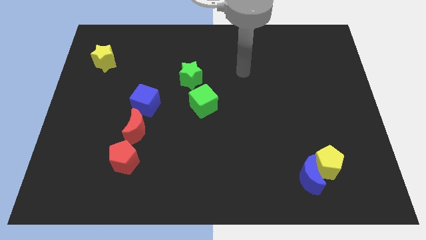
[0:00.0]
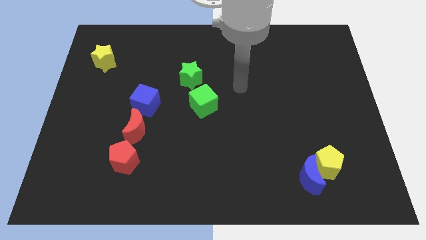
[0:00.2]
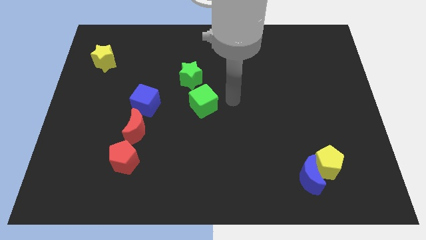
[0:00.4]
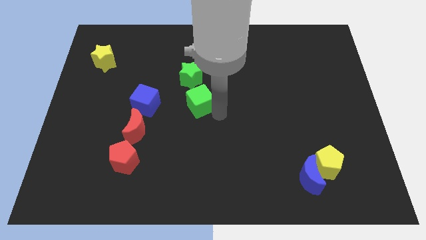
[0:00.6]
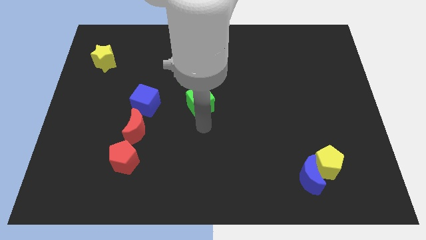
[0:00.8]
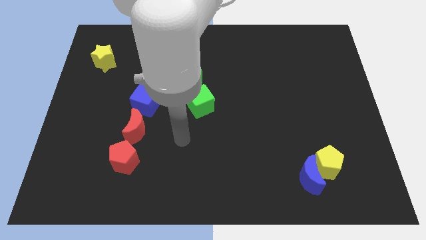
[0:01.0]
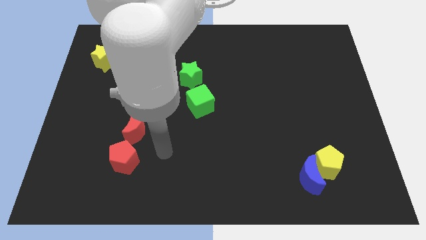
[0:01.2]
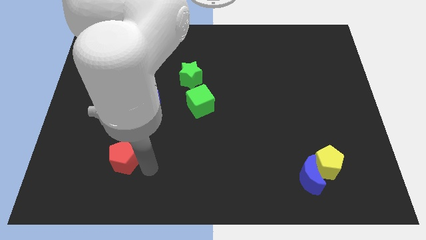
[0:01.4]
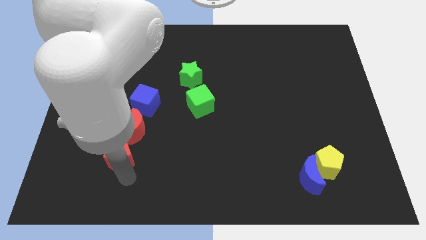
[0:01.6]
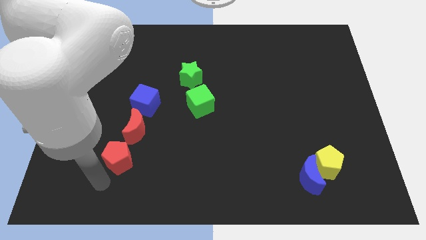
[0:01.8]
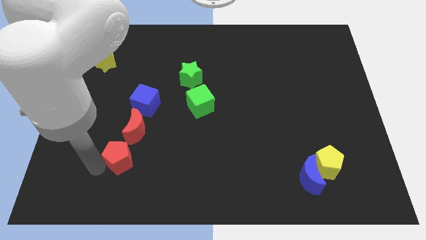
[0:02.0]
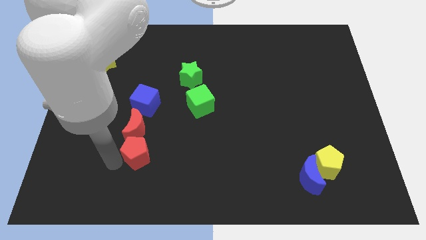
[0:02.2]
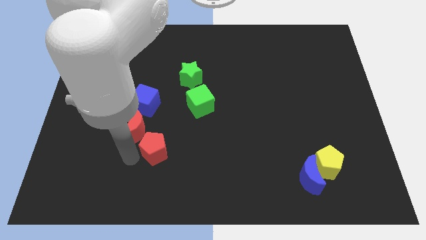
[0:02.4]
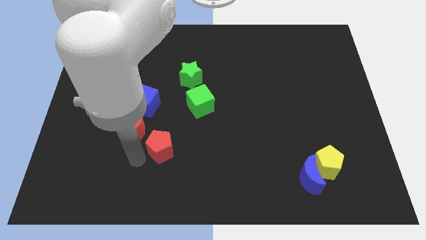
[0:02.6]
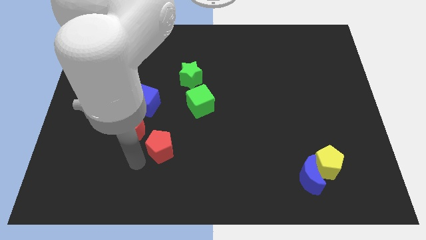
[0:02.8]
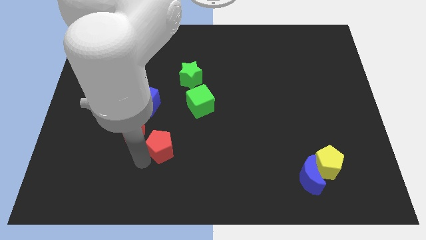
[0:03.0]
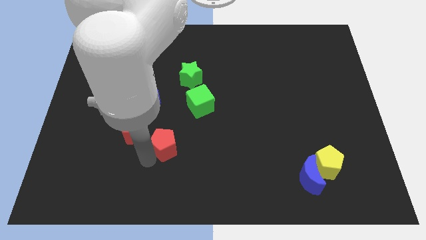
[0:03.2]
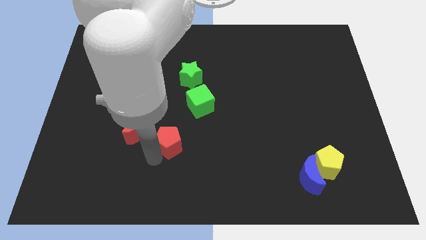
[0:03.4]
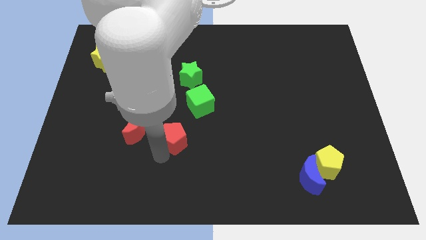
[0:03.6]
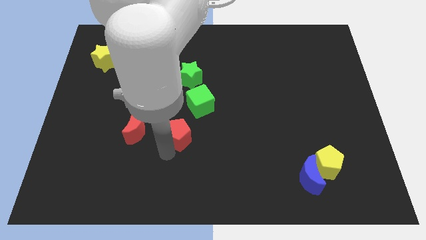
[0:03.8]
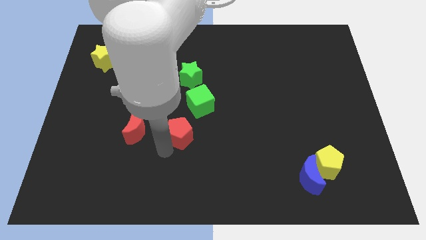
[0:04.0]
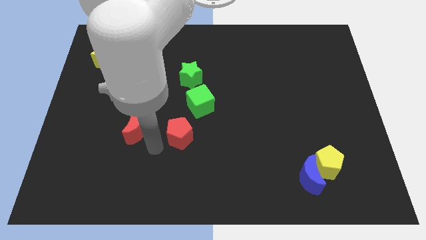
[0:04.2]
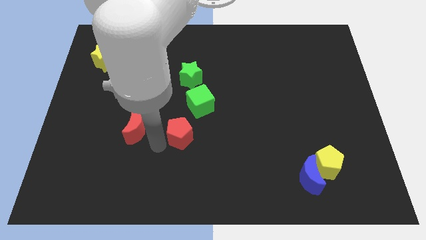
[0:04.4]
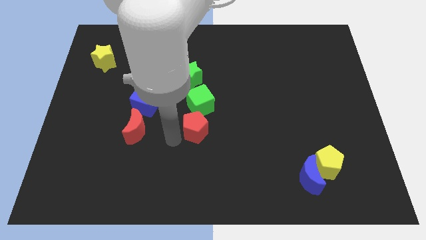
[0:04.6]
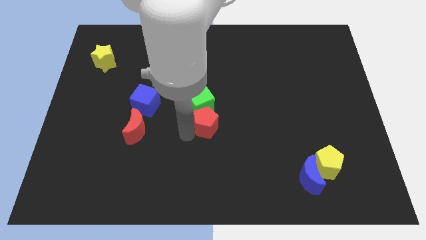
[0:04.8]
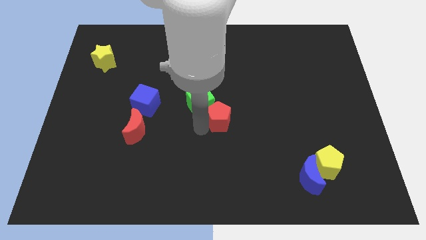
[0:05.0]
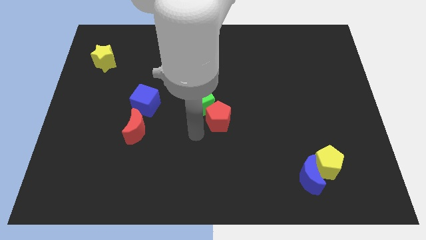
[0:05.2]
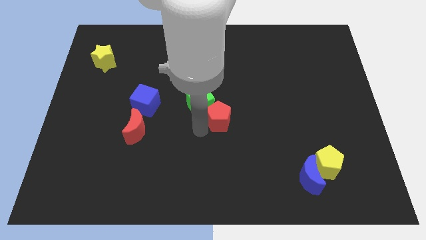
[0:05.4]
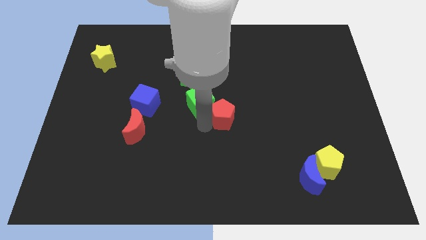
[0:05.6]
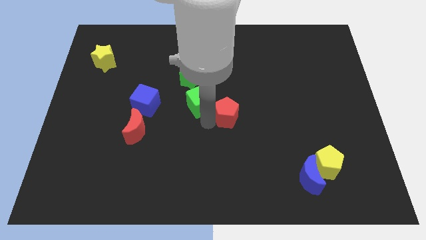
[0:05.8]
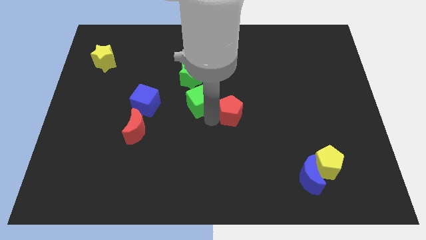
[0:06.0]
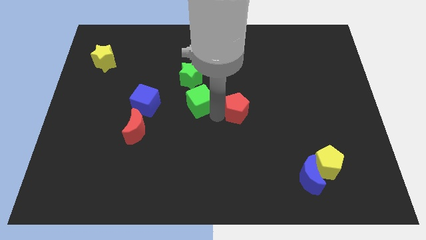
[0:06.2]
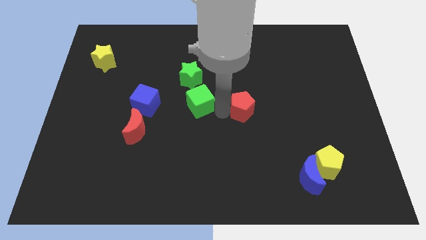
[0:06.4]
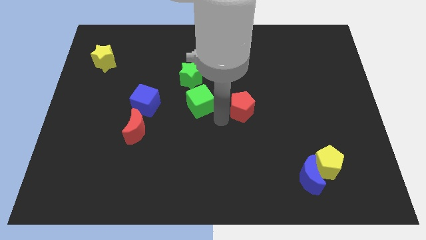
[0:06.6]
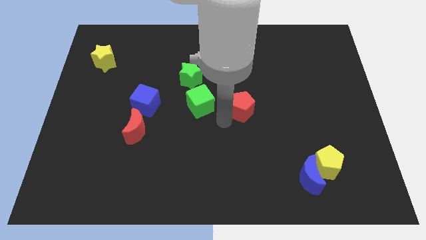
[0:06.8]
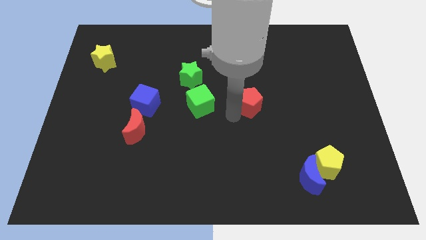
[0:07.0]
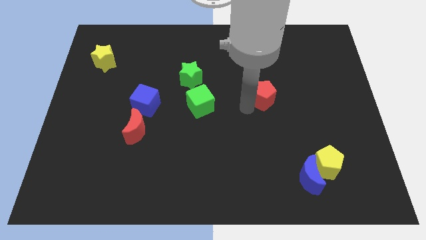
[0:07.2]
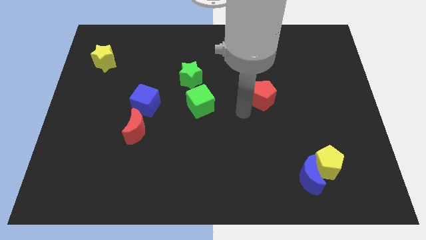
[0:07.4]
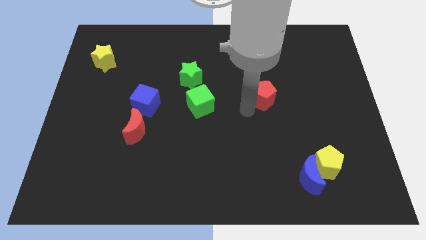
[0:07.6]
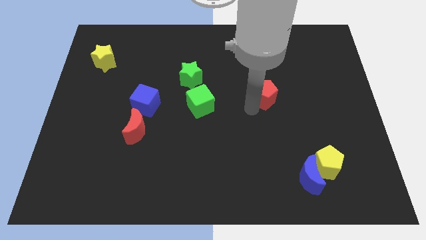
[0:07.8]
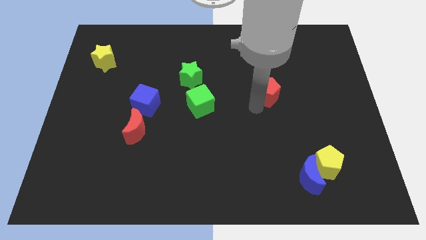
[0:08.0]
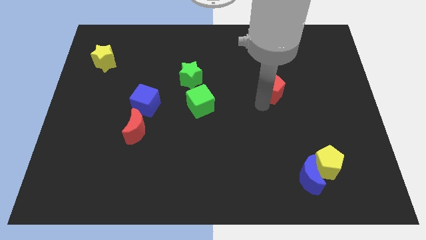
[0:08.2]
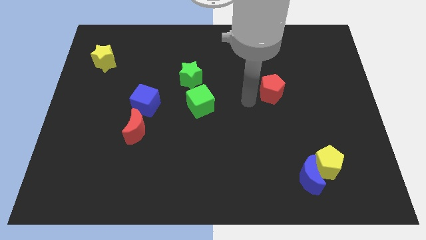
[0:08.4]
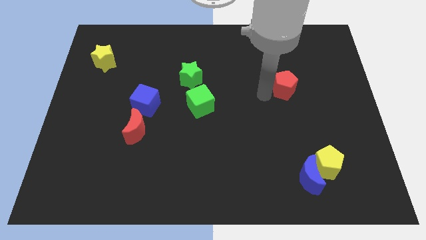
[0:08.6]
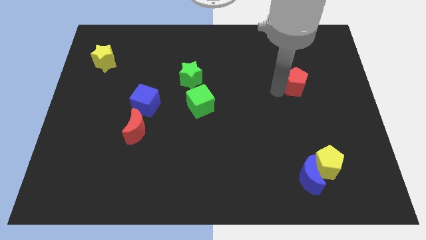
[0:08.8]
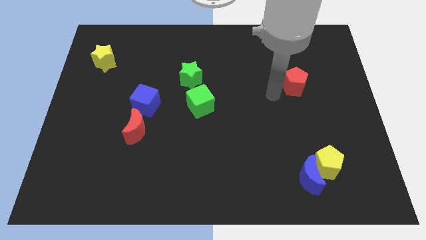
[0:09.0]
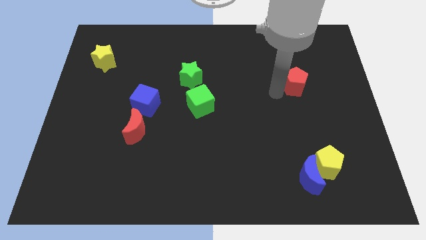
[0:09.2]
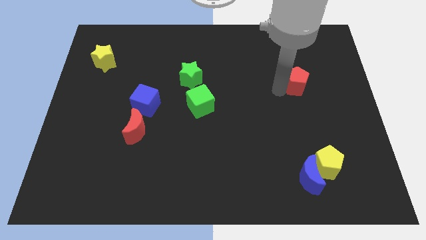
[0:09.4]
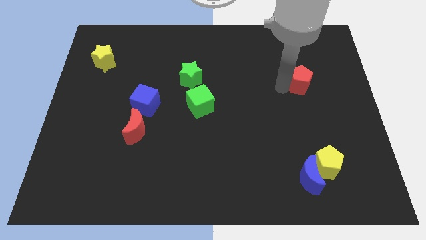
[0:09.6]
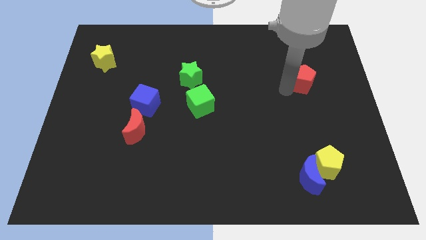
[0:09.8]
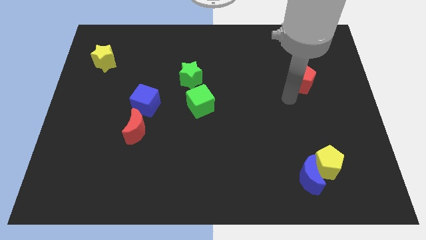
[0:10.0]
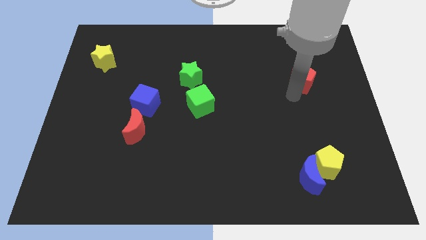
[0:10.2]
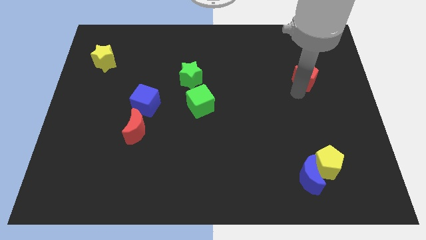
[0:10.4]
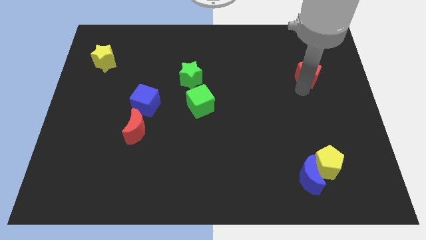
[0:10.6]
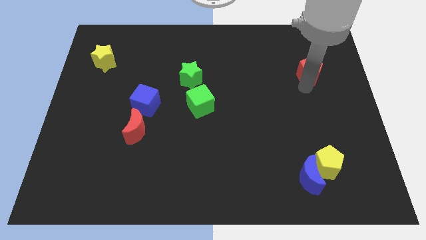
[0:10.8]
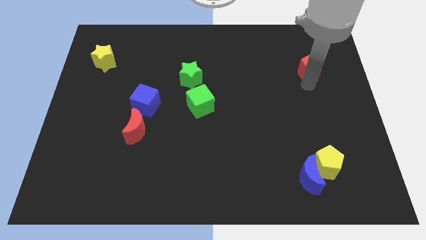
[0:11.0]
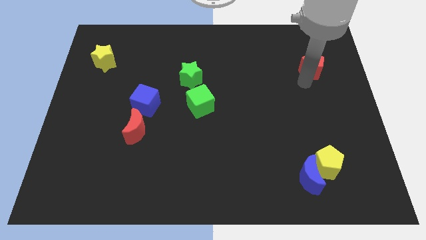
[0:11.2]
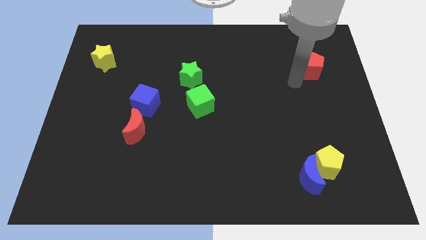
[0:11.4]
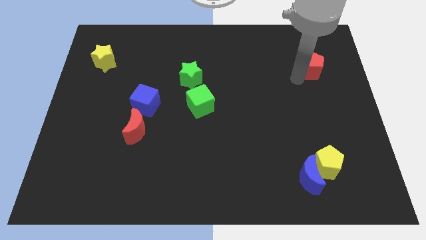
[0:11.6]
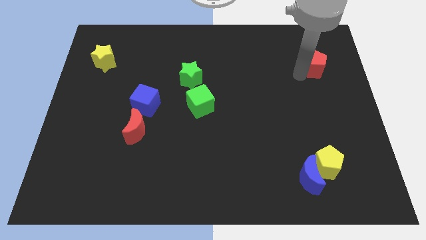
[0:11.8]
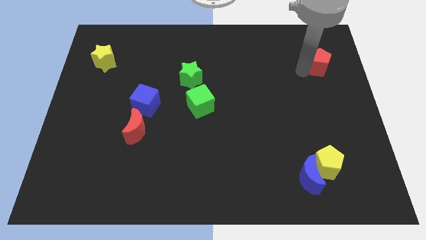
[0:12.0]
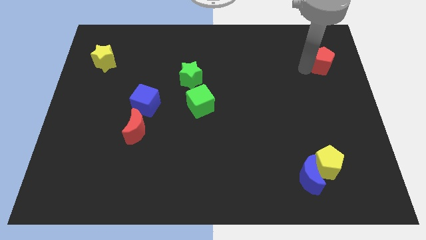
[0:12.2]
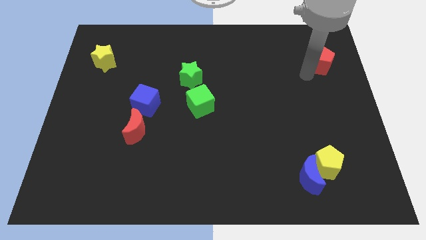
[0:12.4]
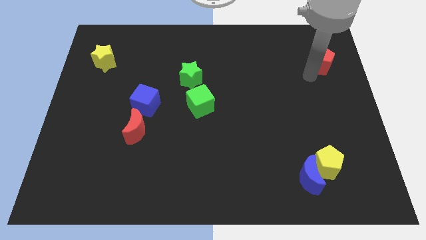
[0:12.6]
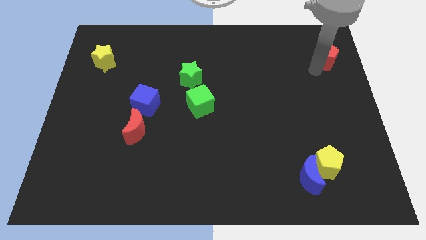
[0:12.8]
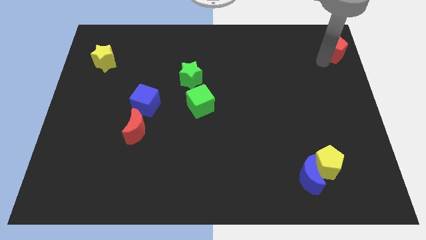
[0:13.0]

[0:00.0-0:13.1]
slide the red pentagon to the top right corner
